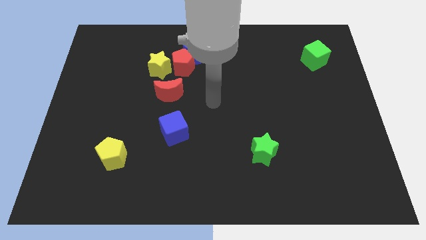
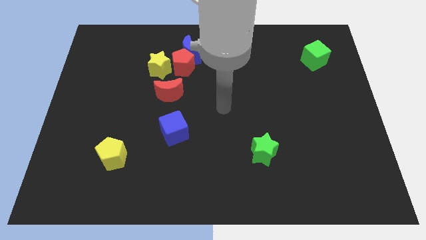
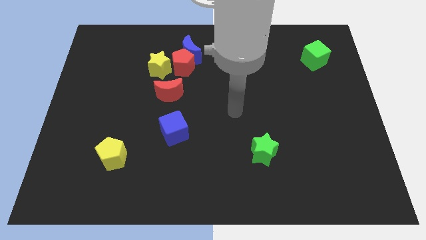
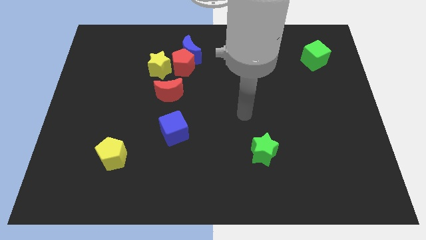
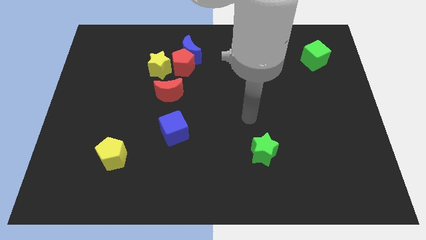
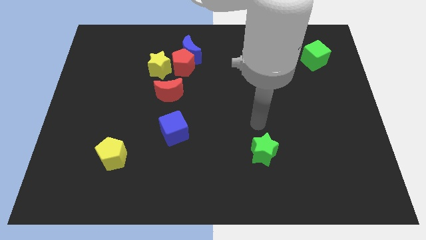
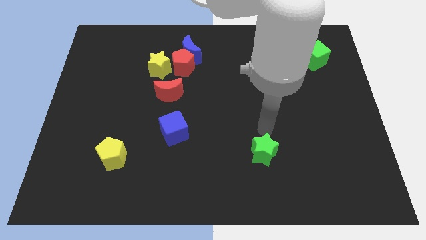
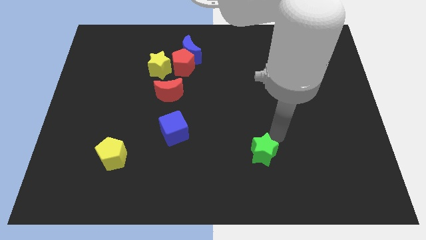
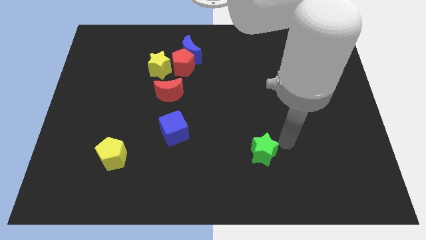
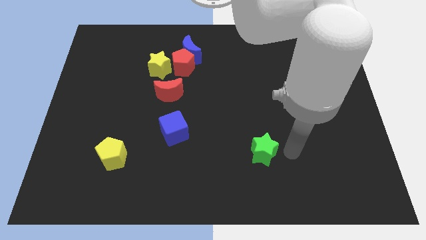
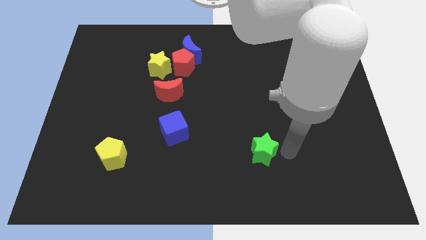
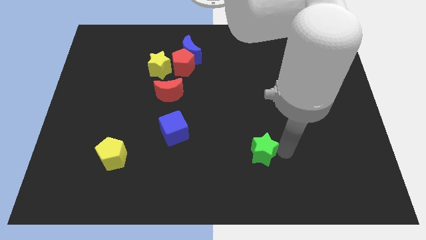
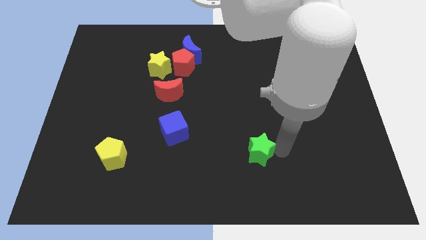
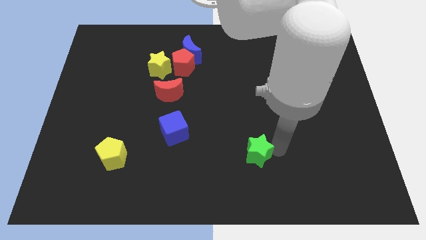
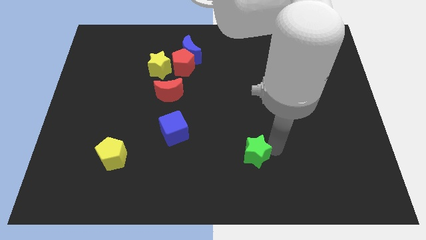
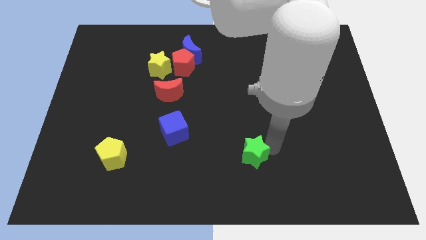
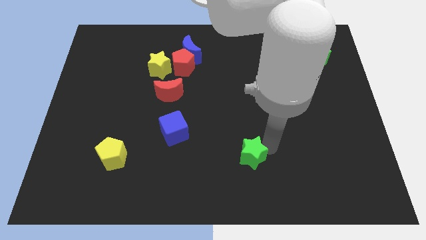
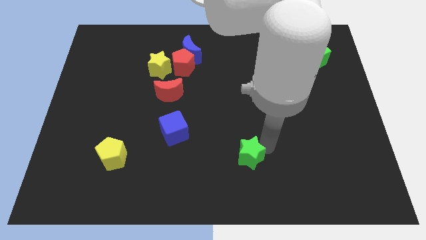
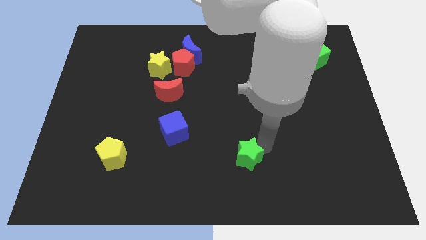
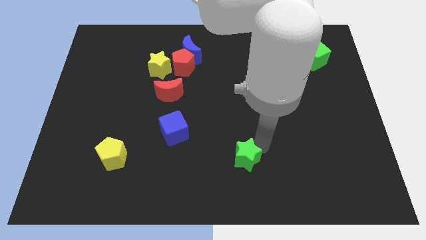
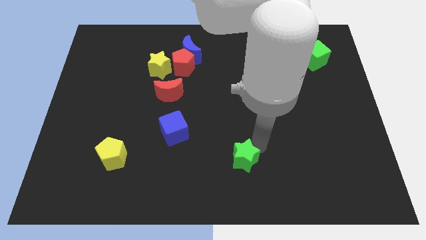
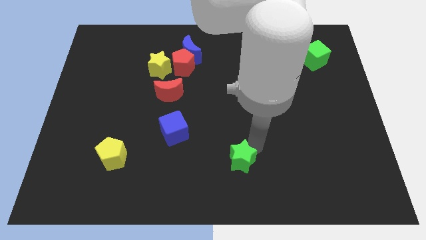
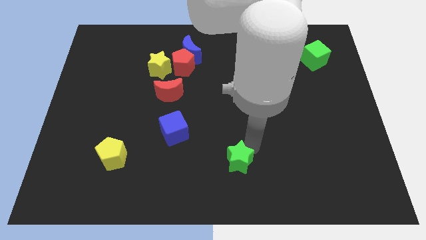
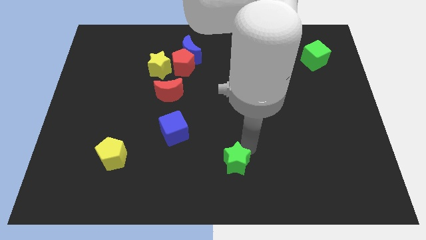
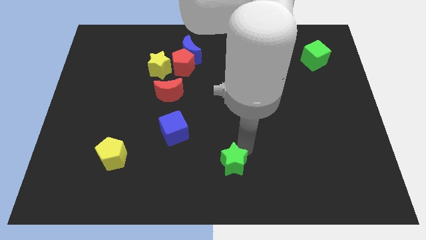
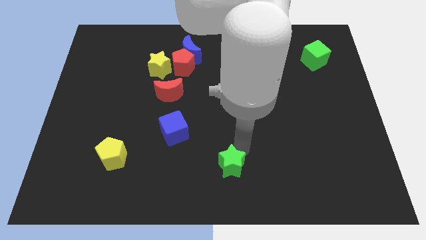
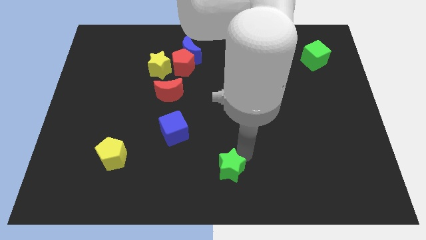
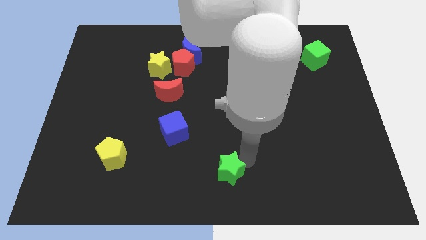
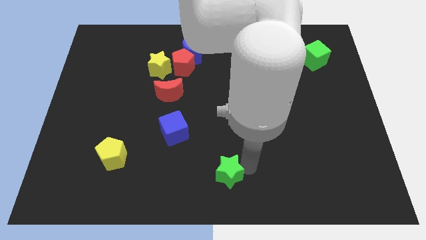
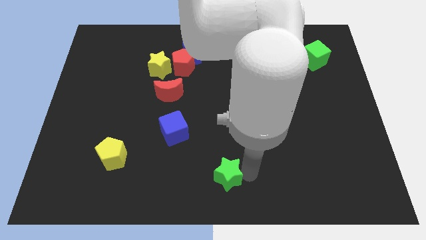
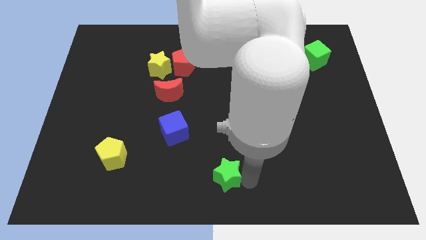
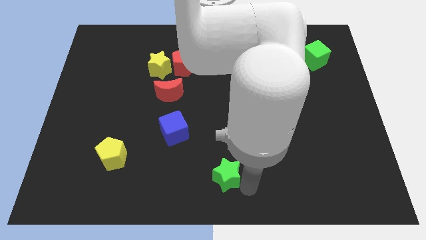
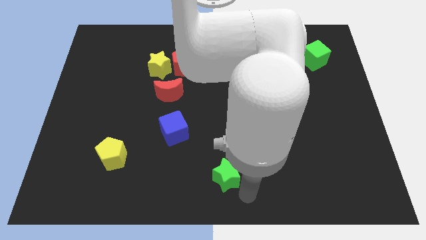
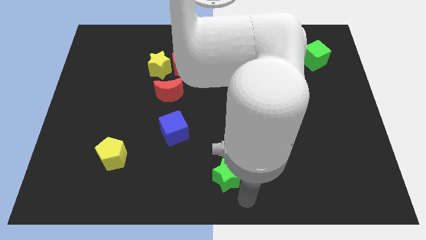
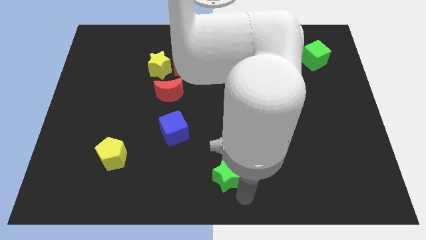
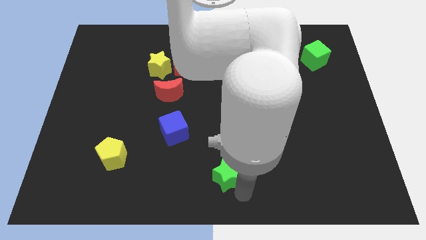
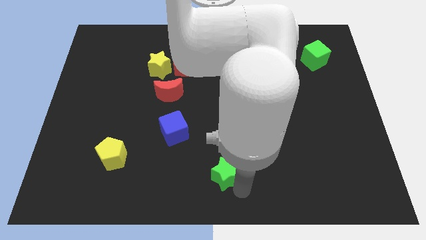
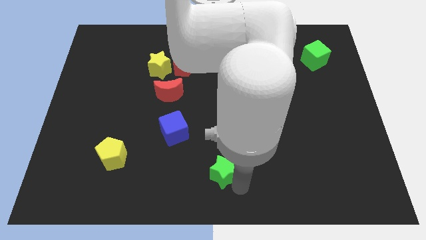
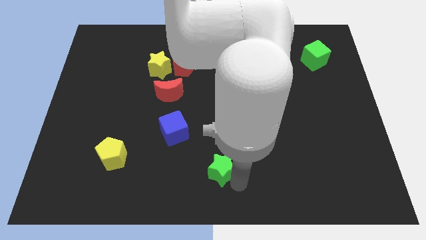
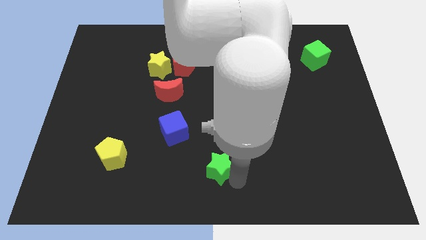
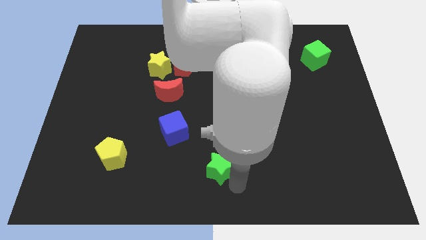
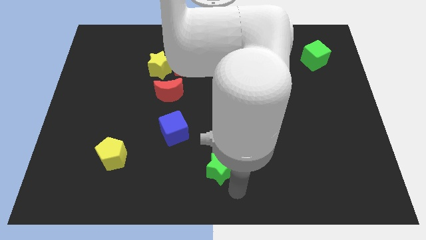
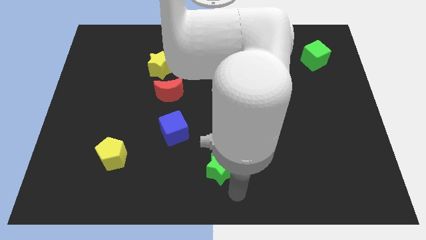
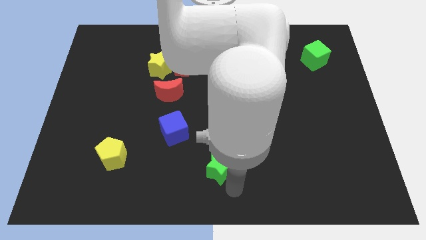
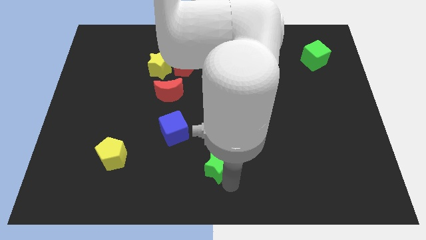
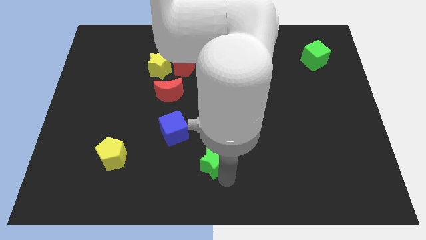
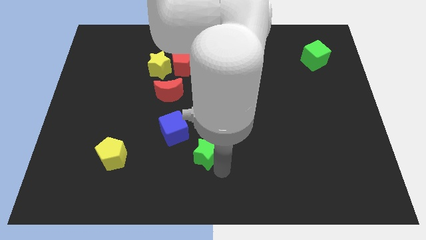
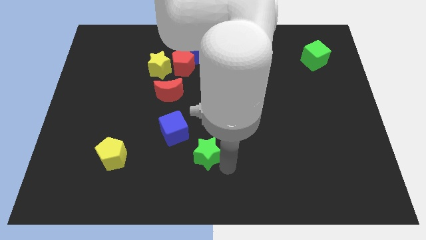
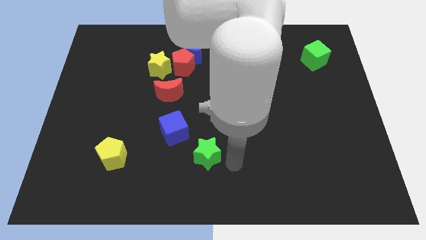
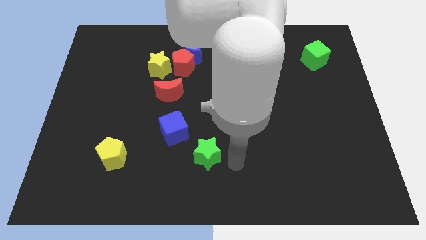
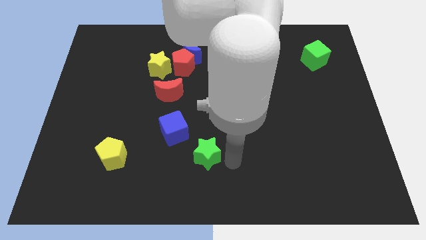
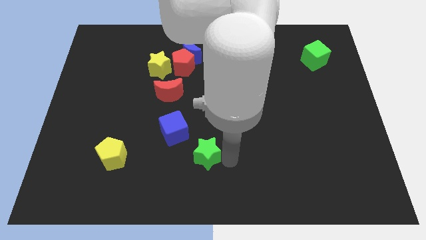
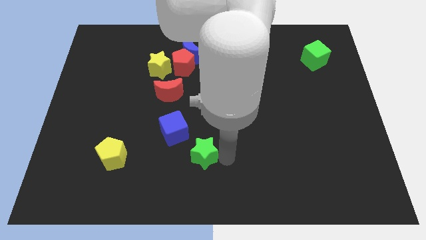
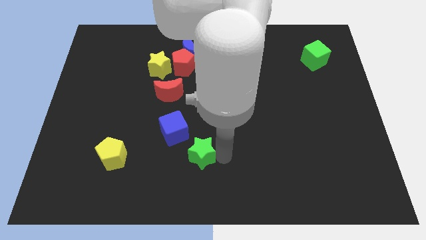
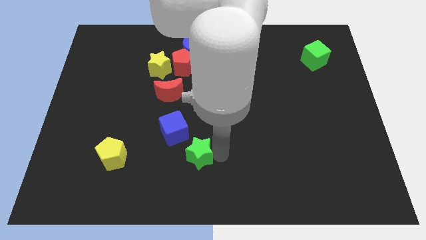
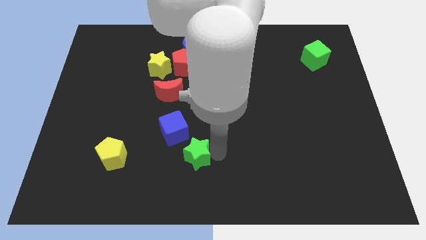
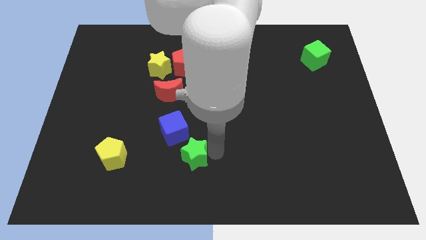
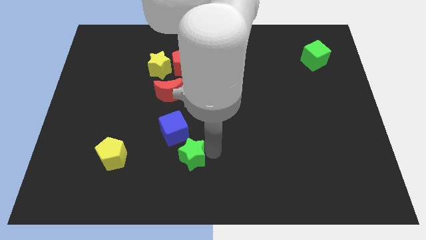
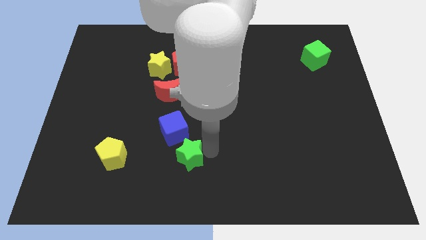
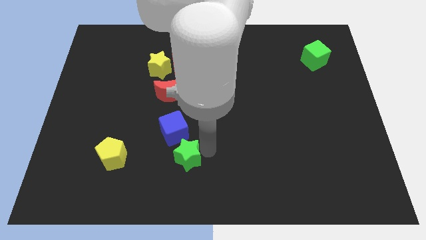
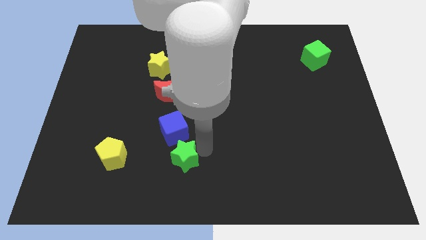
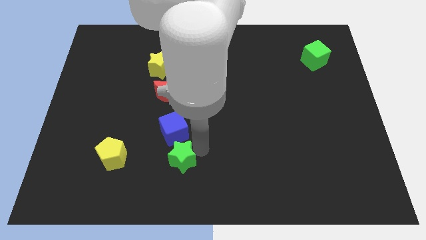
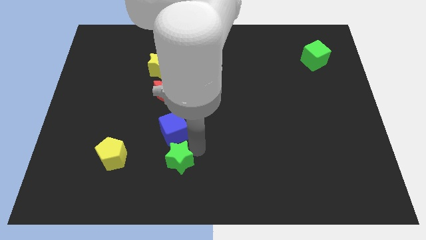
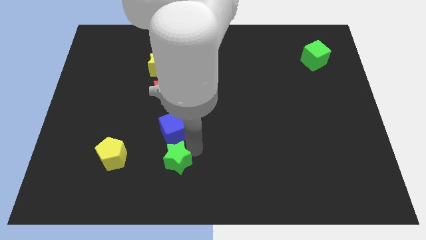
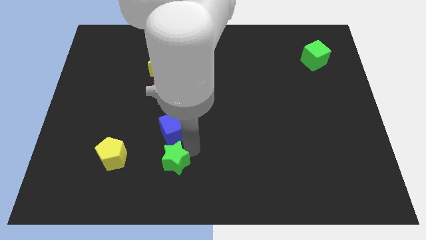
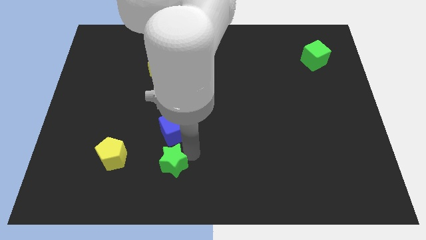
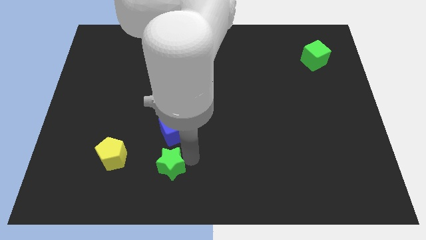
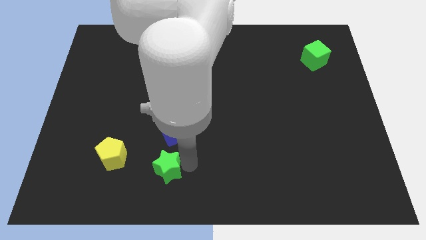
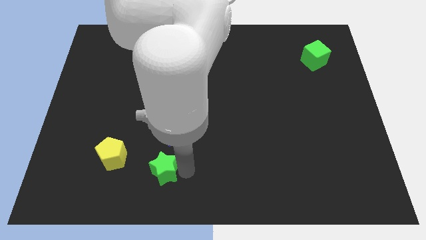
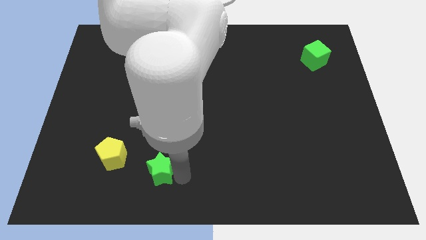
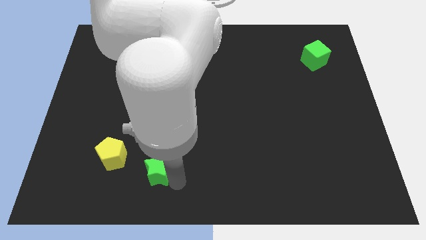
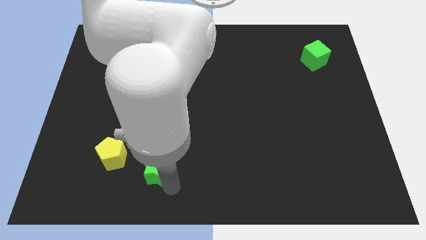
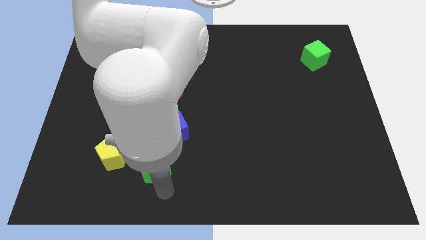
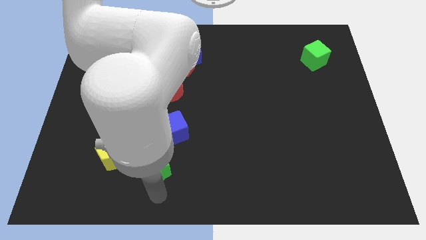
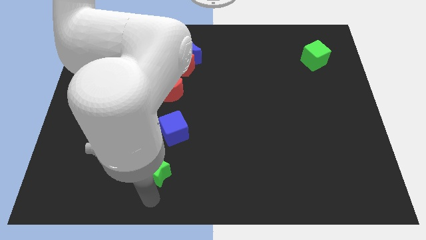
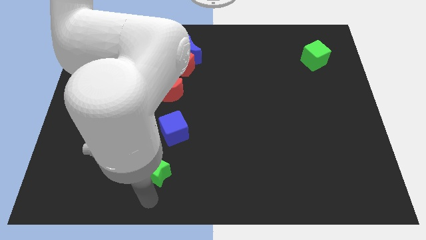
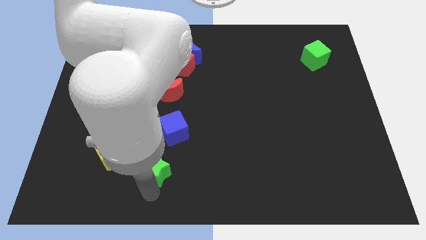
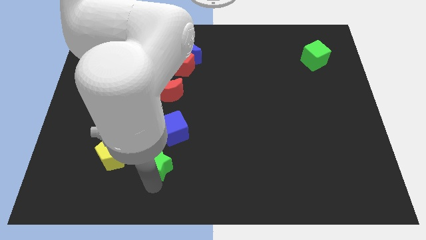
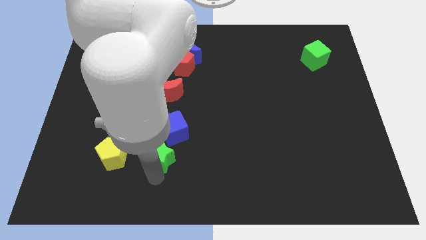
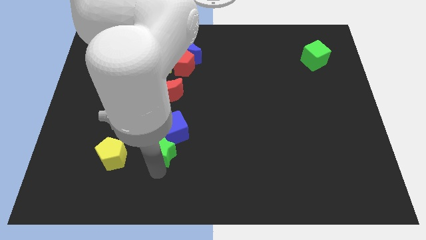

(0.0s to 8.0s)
move the green star to the bottom side of the red moon

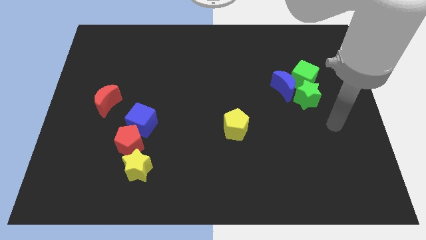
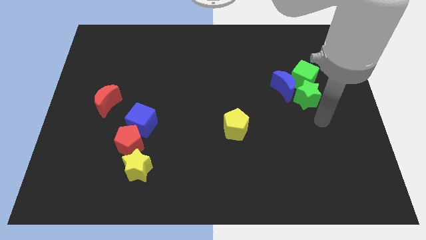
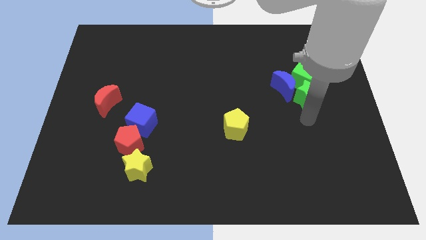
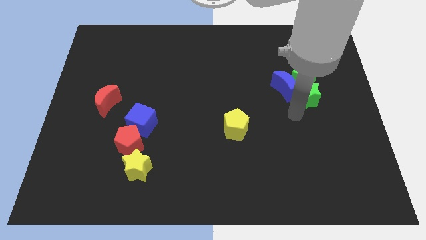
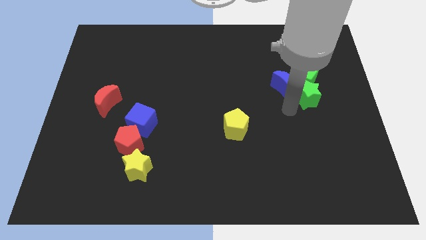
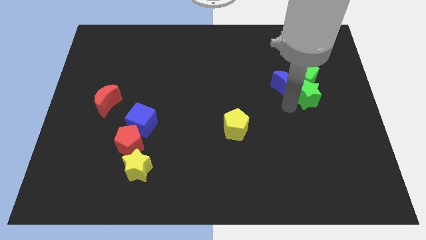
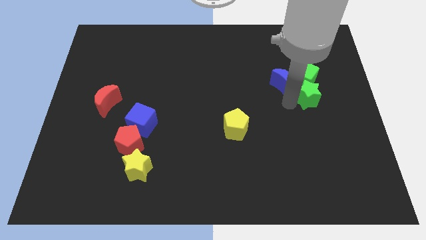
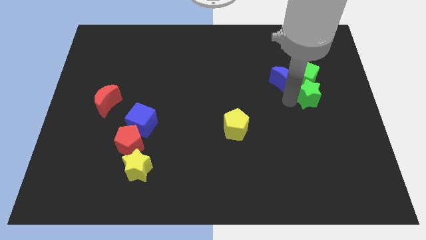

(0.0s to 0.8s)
push the blue moon to the top left side of the green cube
